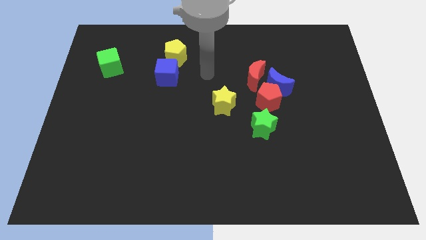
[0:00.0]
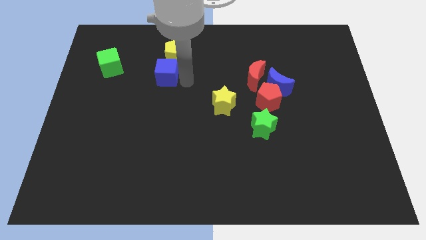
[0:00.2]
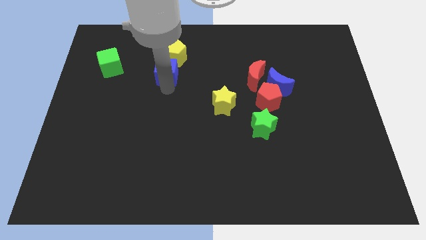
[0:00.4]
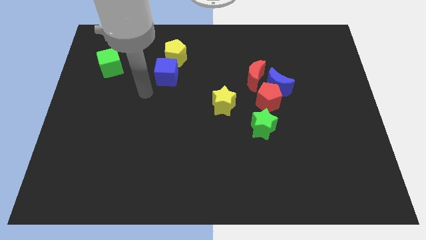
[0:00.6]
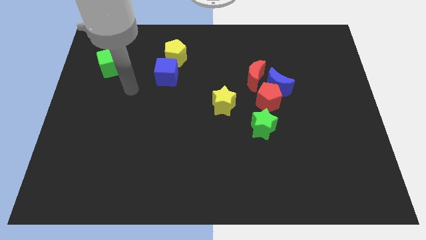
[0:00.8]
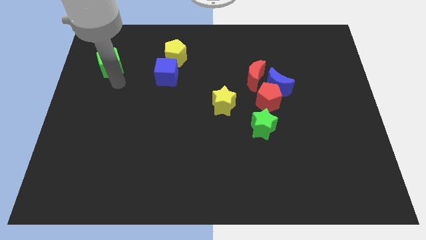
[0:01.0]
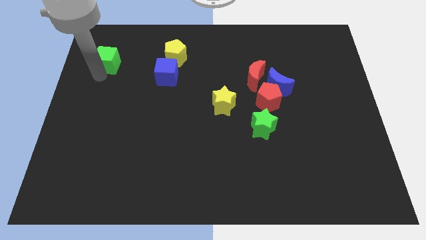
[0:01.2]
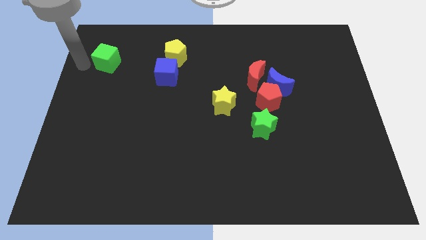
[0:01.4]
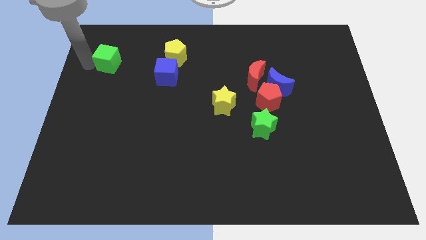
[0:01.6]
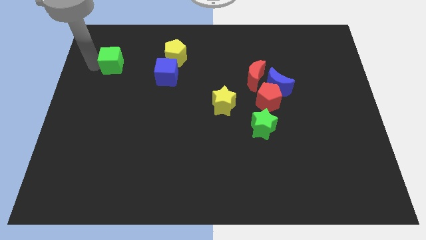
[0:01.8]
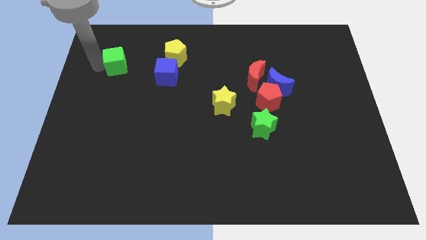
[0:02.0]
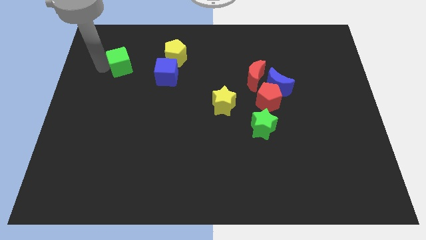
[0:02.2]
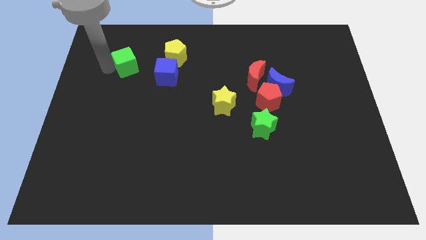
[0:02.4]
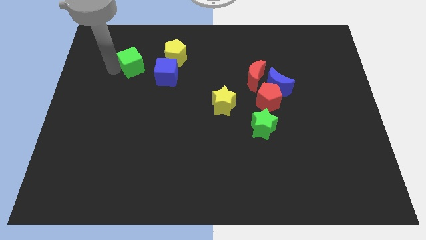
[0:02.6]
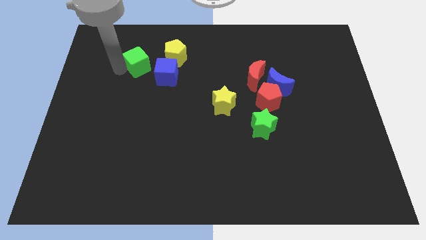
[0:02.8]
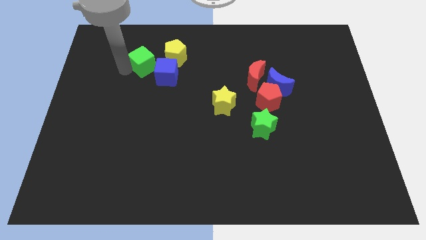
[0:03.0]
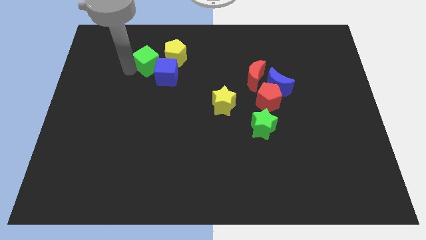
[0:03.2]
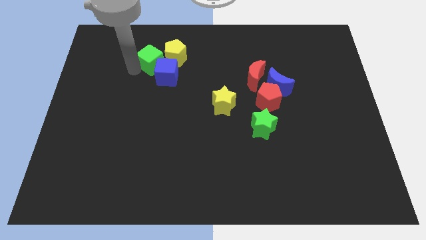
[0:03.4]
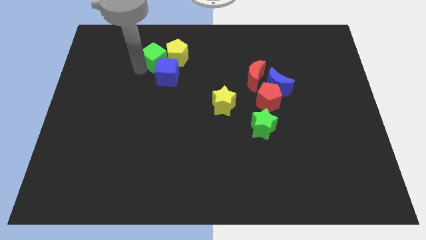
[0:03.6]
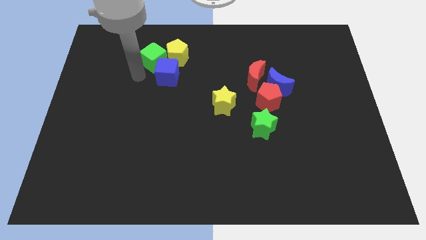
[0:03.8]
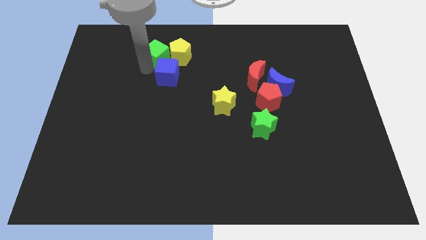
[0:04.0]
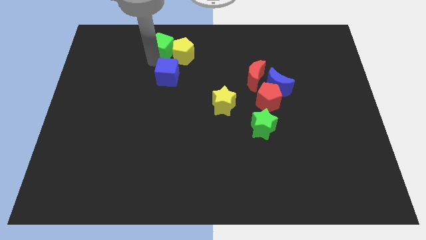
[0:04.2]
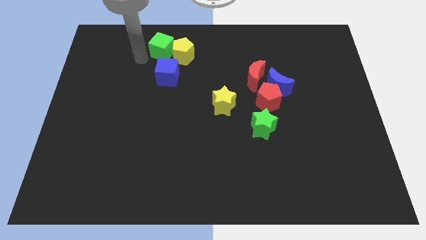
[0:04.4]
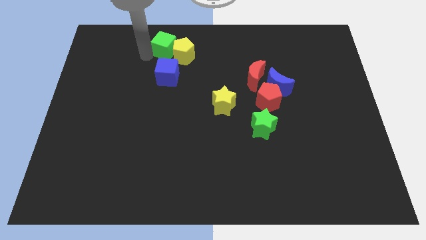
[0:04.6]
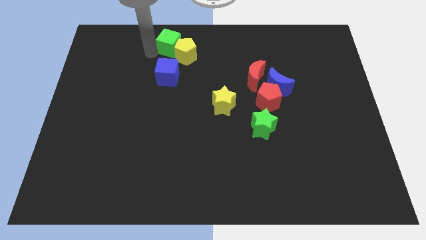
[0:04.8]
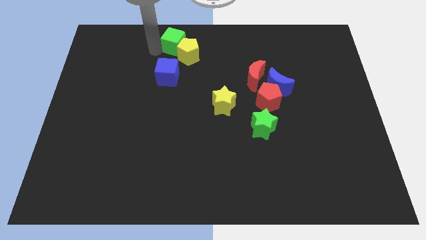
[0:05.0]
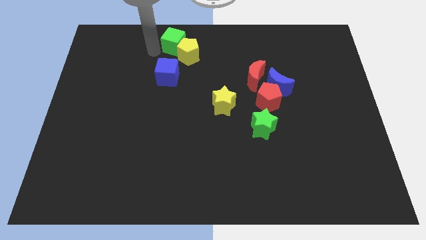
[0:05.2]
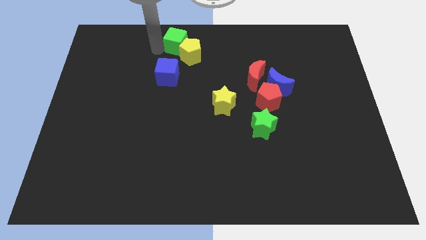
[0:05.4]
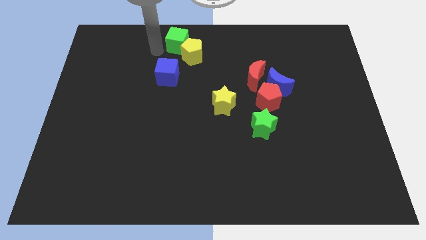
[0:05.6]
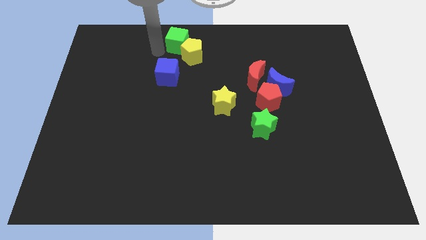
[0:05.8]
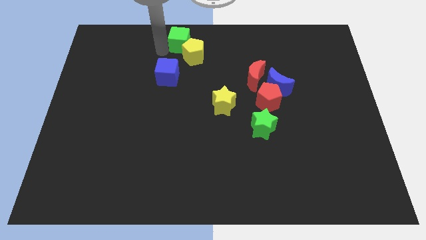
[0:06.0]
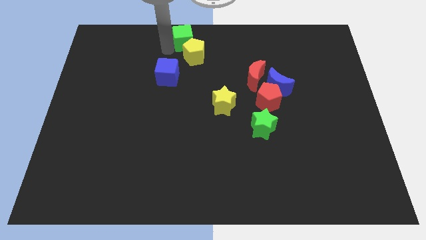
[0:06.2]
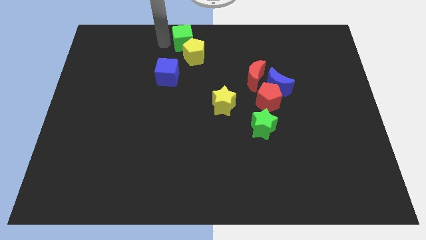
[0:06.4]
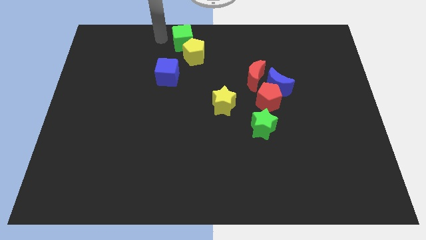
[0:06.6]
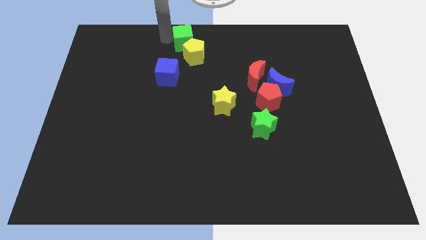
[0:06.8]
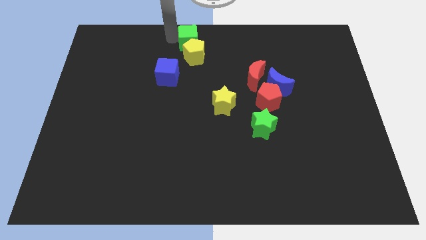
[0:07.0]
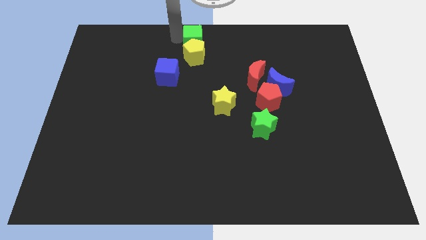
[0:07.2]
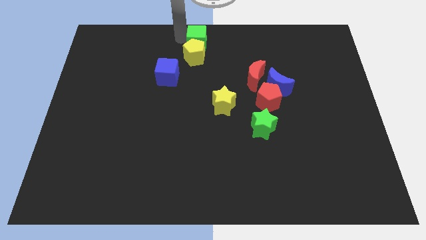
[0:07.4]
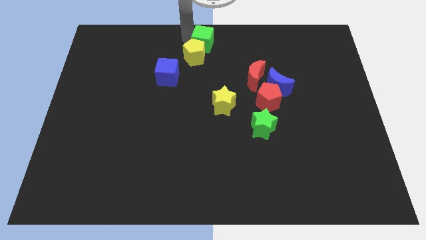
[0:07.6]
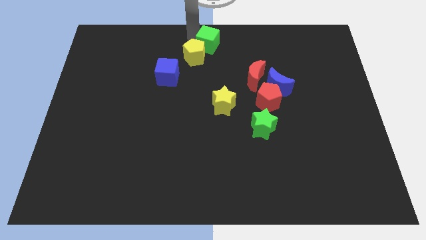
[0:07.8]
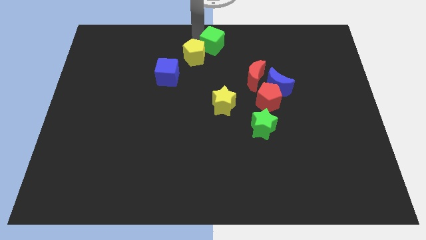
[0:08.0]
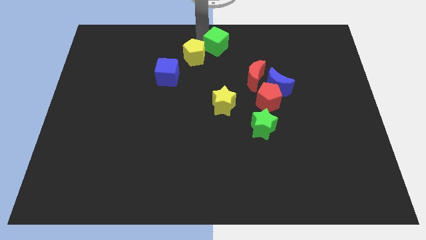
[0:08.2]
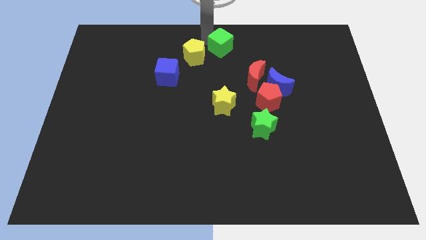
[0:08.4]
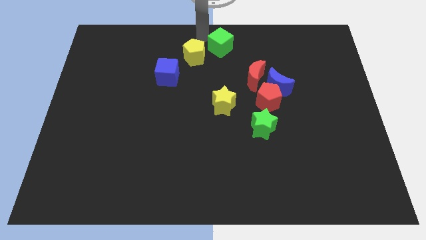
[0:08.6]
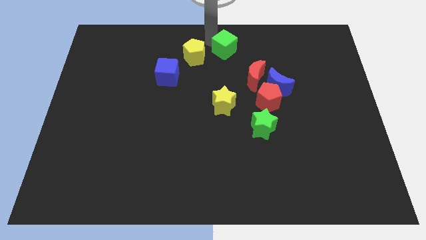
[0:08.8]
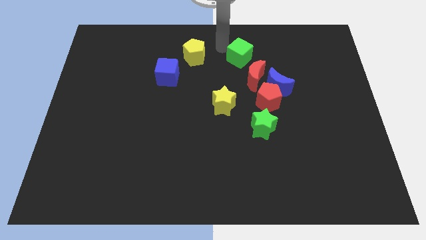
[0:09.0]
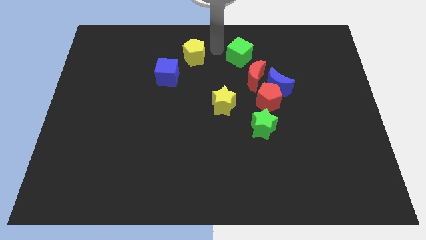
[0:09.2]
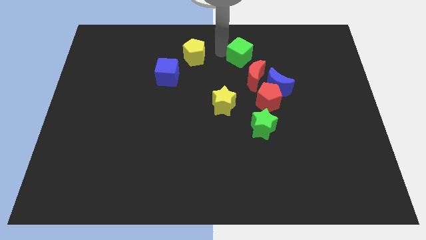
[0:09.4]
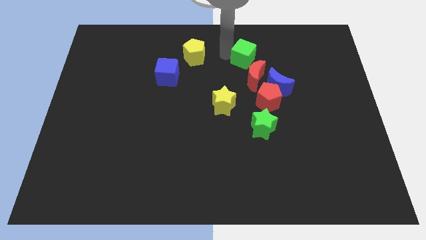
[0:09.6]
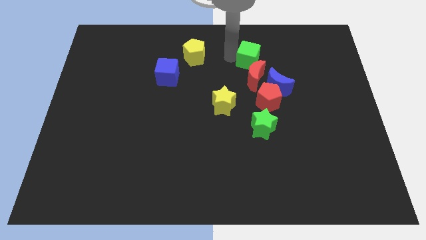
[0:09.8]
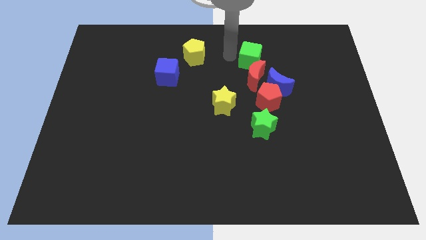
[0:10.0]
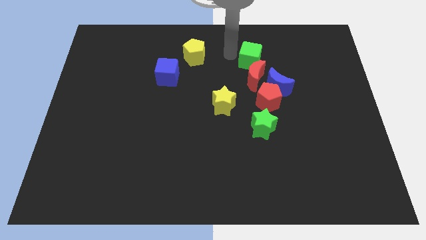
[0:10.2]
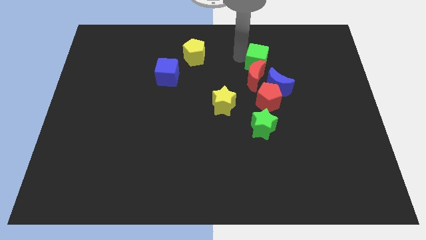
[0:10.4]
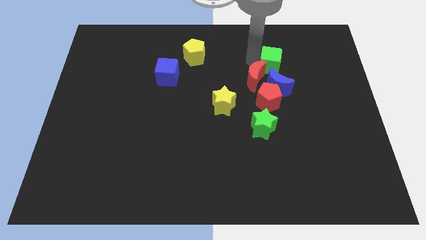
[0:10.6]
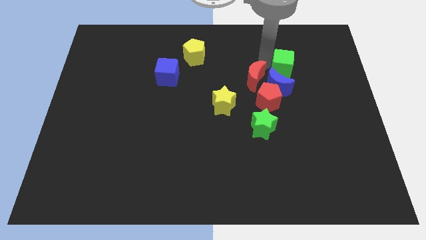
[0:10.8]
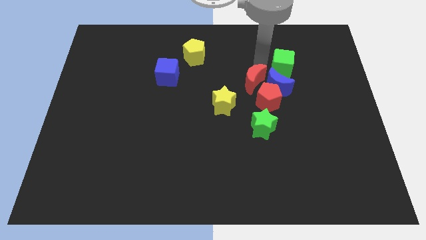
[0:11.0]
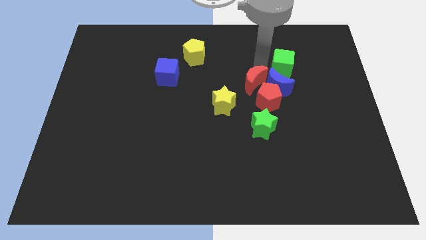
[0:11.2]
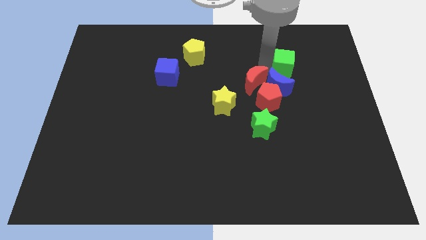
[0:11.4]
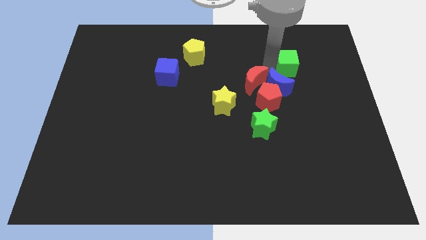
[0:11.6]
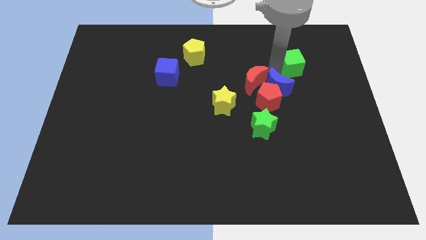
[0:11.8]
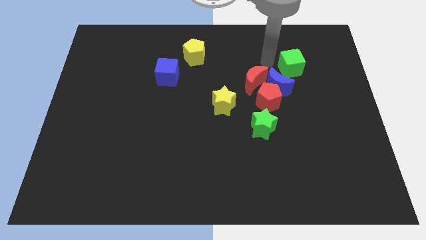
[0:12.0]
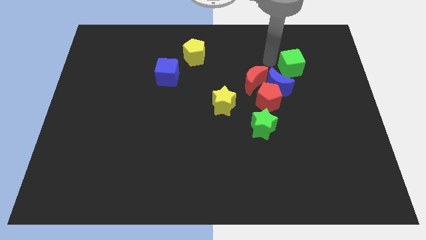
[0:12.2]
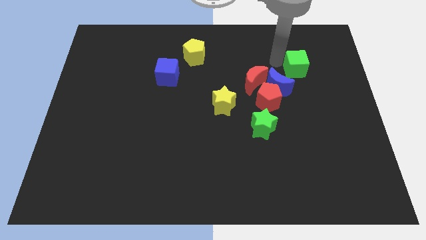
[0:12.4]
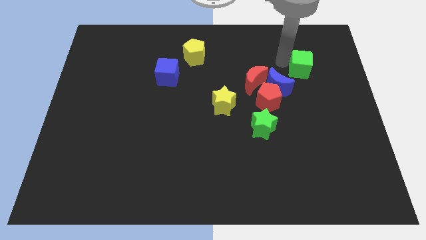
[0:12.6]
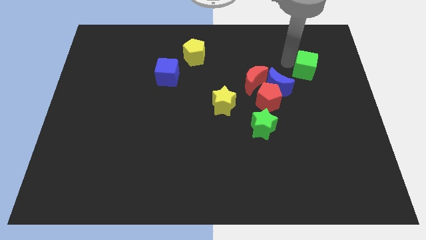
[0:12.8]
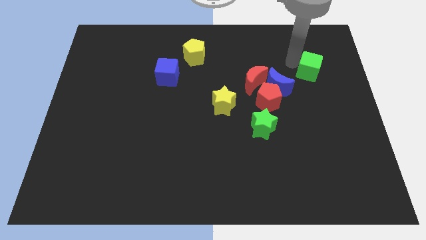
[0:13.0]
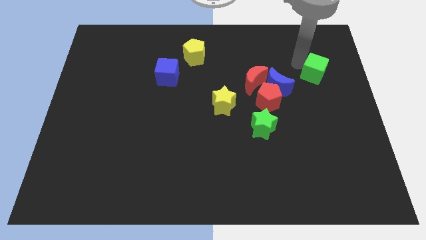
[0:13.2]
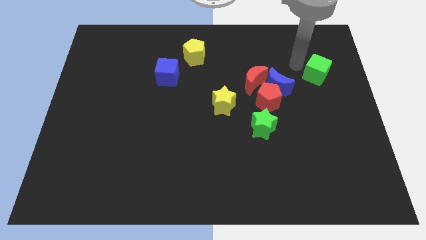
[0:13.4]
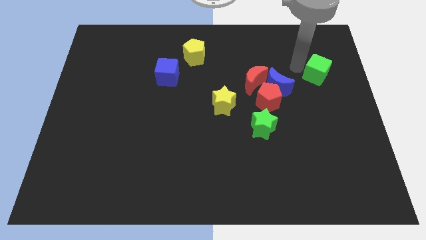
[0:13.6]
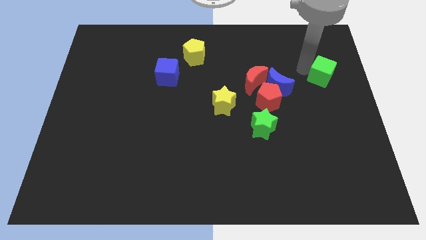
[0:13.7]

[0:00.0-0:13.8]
slide the green cube to the right side of the board
